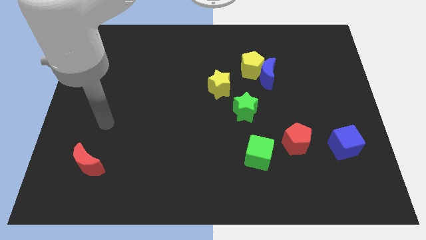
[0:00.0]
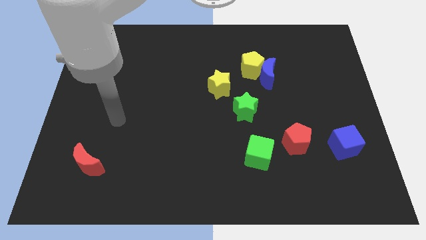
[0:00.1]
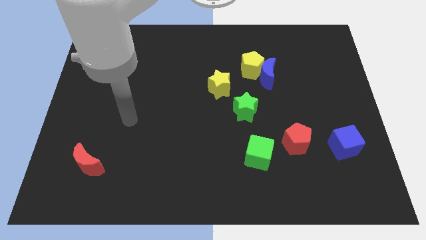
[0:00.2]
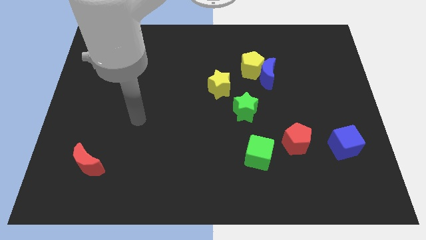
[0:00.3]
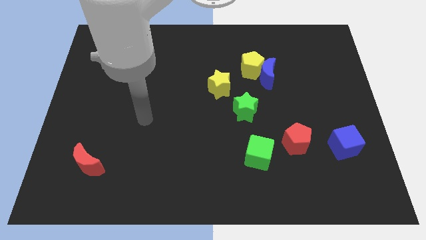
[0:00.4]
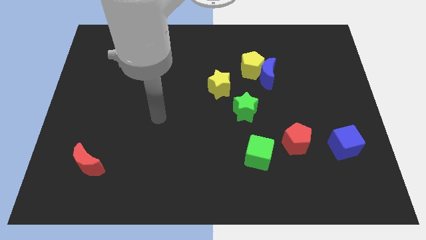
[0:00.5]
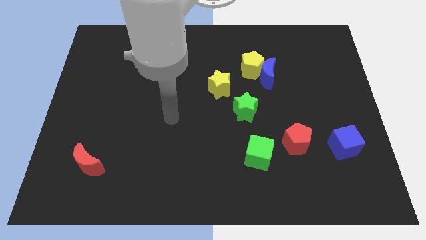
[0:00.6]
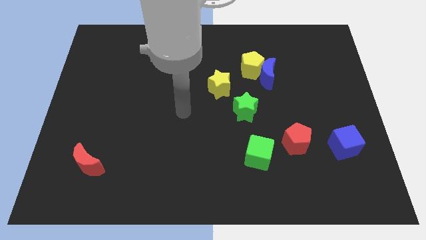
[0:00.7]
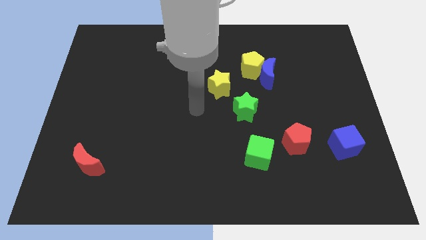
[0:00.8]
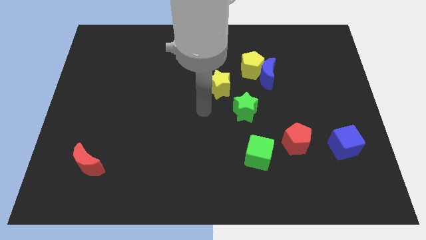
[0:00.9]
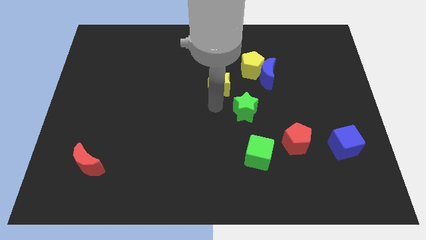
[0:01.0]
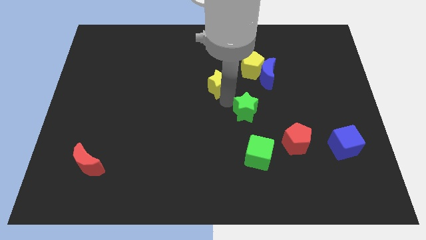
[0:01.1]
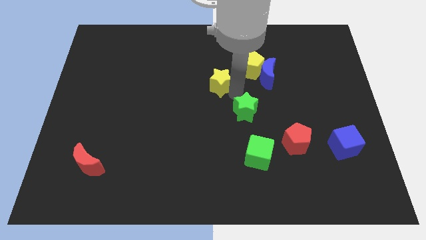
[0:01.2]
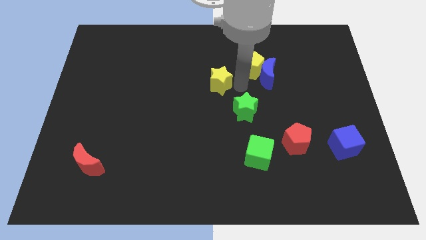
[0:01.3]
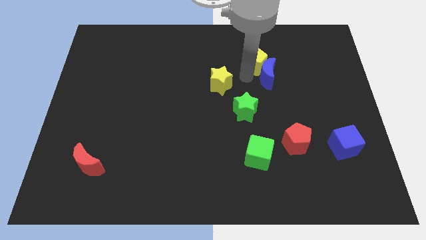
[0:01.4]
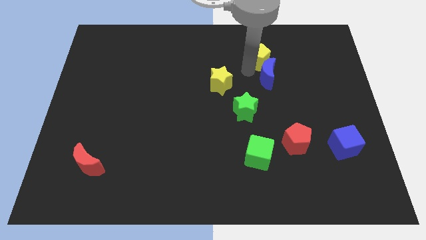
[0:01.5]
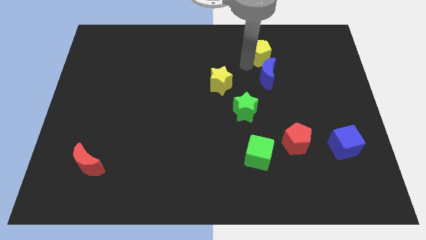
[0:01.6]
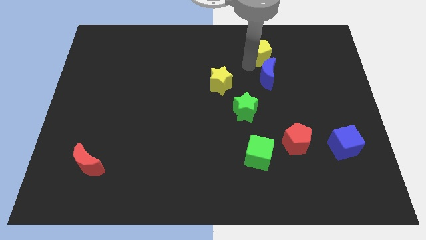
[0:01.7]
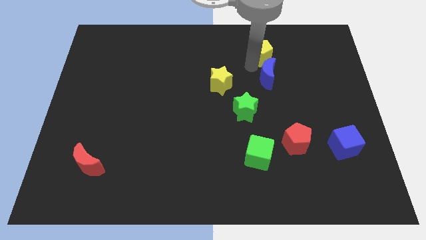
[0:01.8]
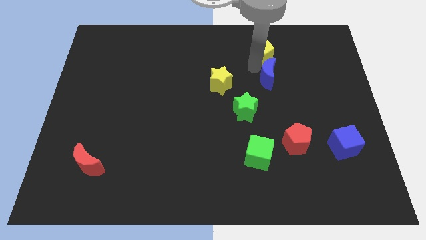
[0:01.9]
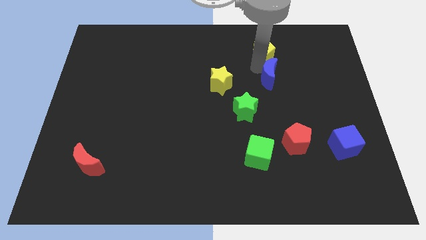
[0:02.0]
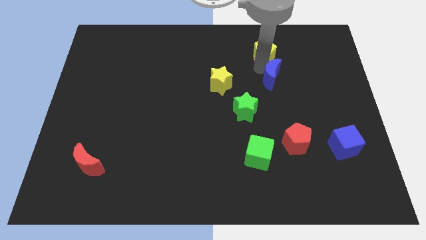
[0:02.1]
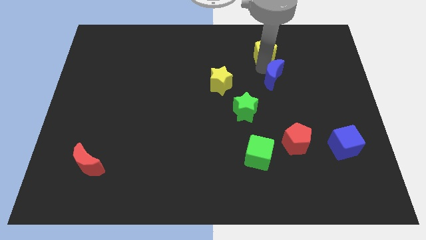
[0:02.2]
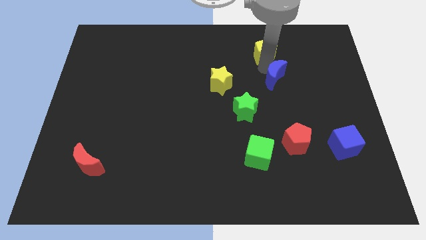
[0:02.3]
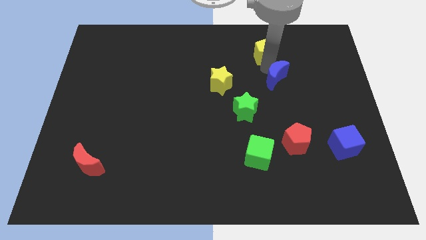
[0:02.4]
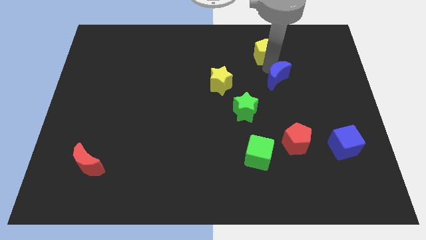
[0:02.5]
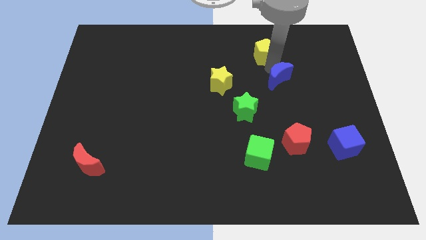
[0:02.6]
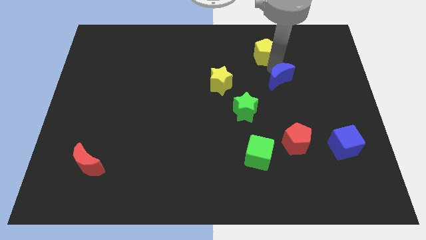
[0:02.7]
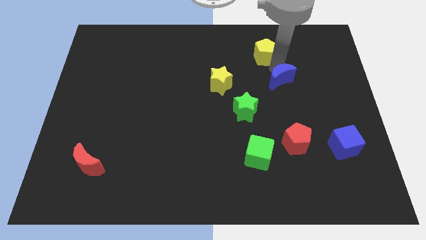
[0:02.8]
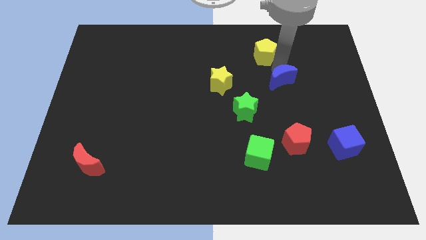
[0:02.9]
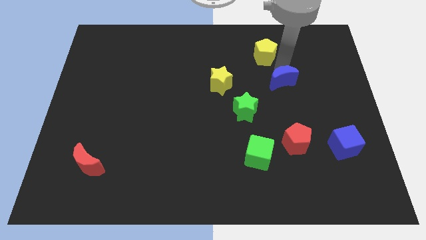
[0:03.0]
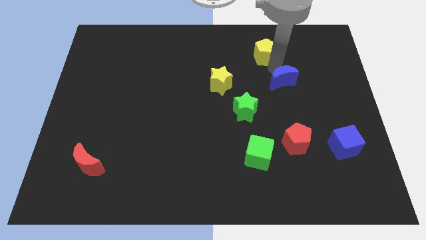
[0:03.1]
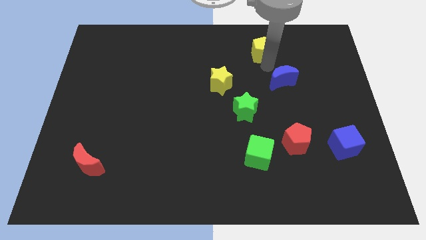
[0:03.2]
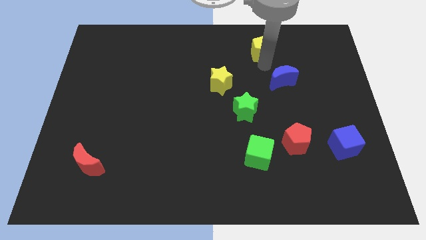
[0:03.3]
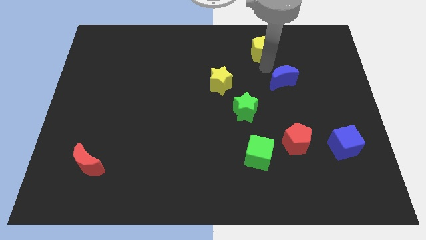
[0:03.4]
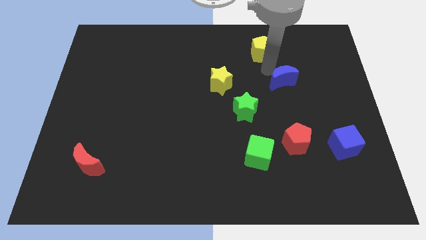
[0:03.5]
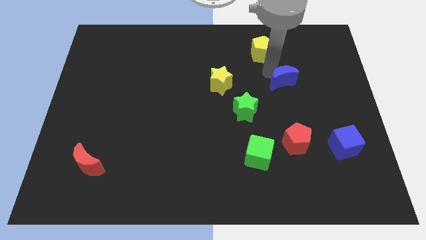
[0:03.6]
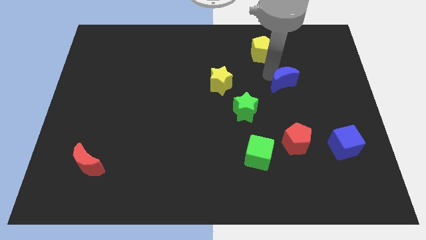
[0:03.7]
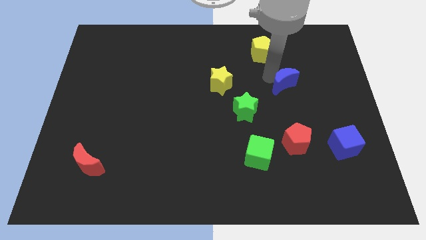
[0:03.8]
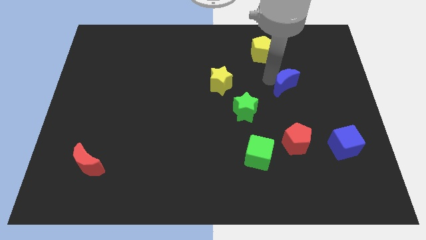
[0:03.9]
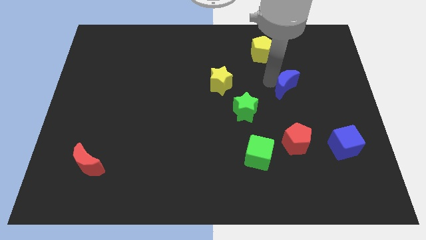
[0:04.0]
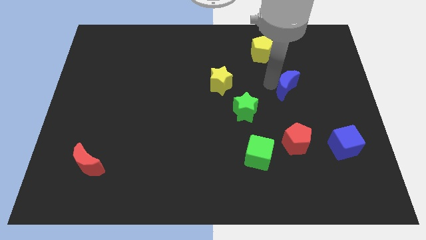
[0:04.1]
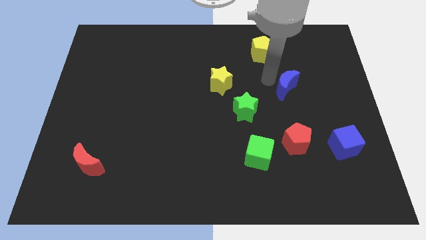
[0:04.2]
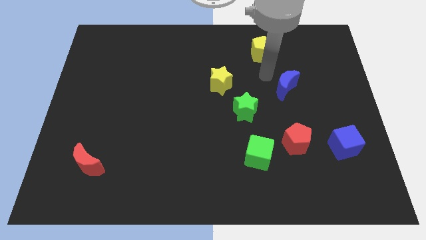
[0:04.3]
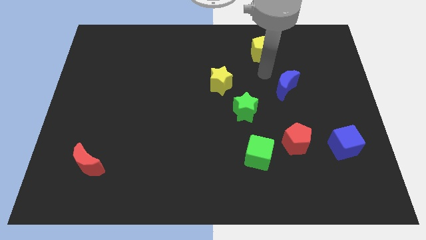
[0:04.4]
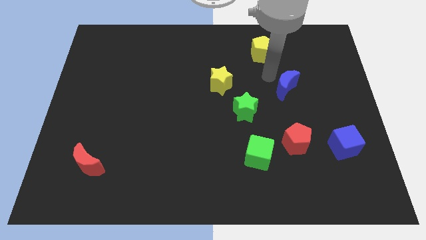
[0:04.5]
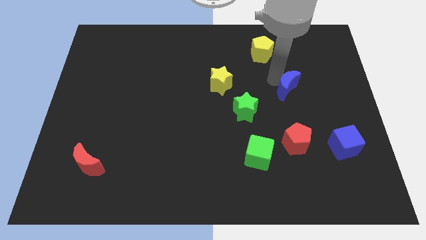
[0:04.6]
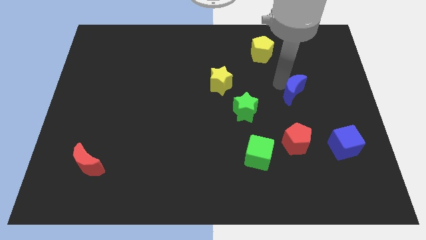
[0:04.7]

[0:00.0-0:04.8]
push the blue moon slightly downwards and right

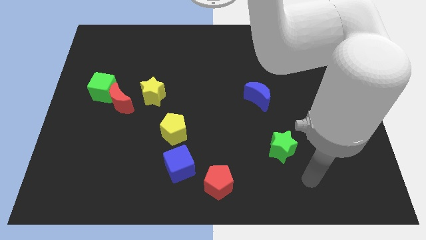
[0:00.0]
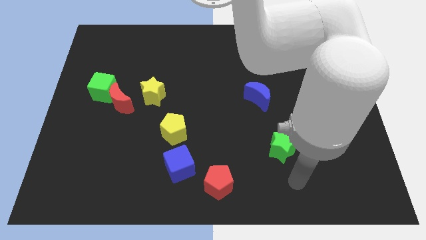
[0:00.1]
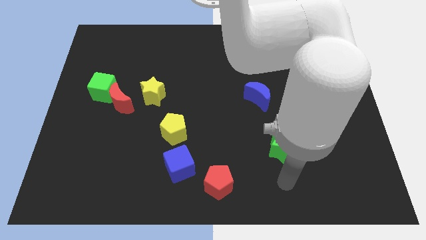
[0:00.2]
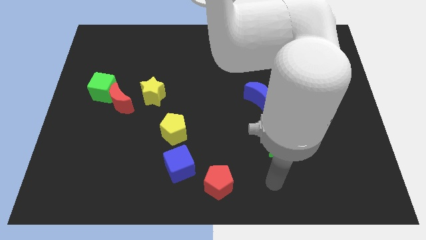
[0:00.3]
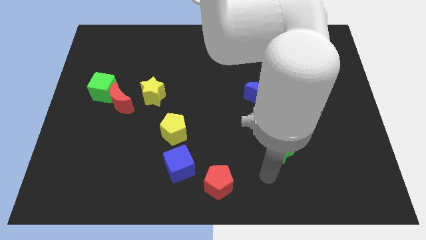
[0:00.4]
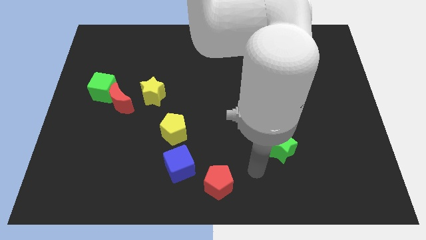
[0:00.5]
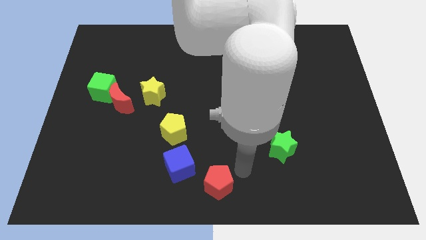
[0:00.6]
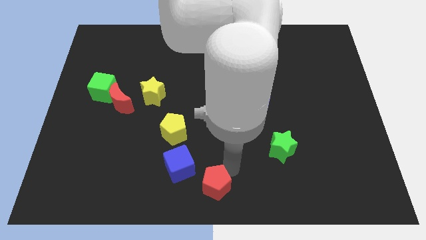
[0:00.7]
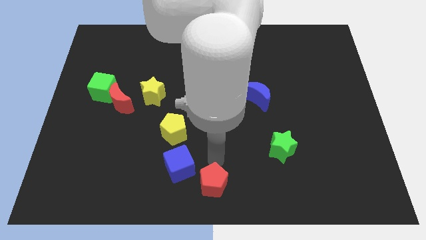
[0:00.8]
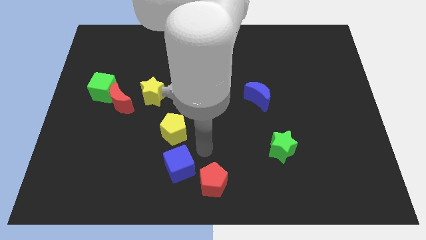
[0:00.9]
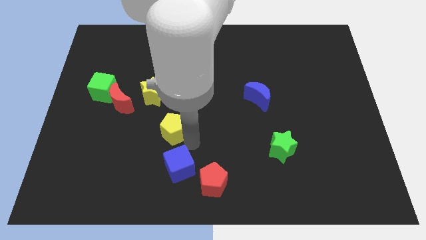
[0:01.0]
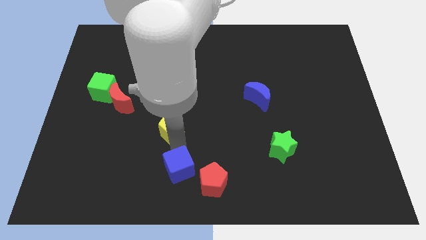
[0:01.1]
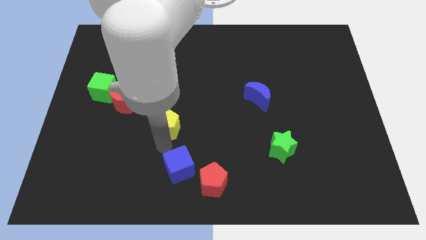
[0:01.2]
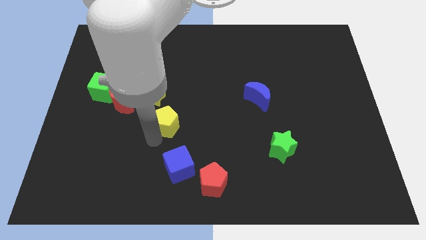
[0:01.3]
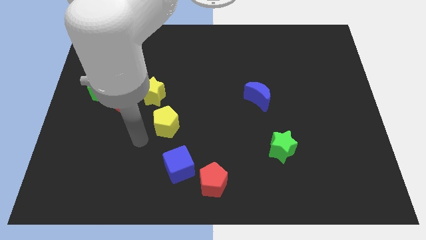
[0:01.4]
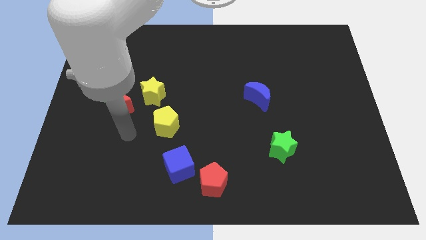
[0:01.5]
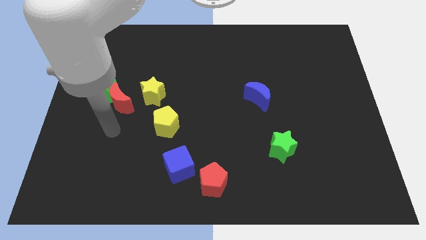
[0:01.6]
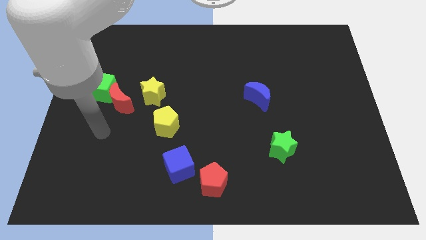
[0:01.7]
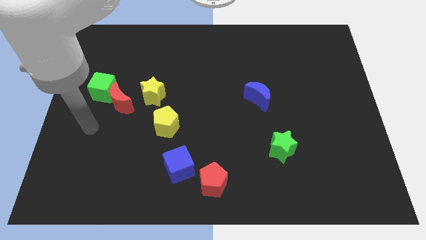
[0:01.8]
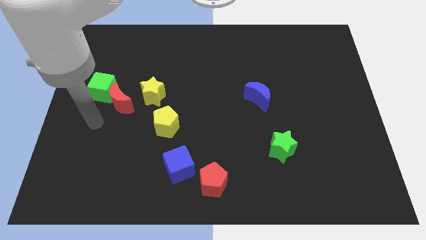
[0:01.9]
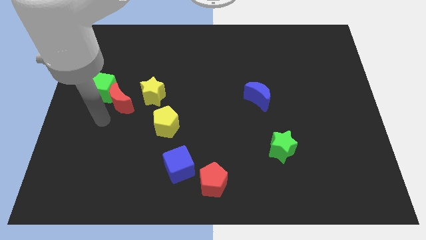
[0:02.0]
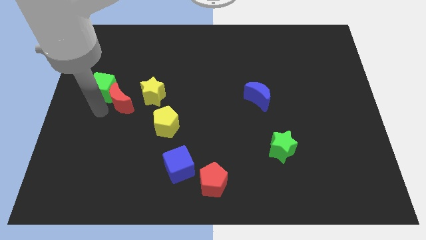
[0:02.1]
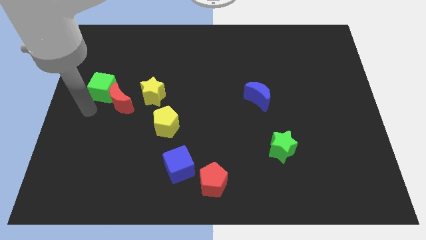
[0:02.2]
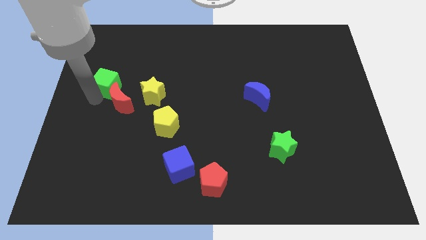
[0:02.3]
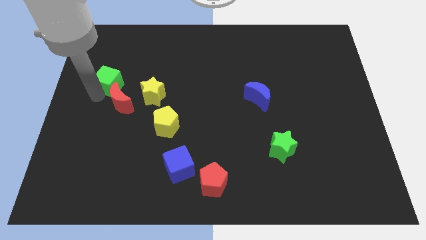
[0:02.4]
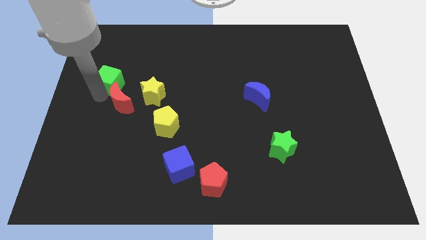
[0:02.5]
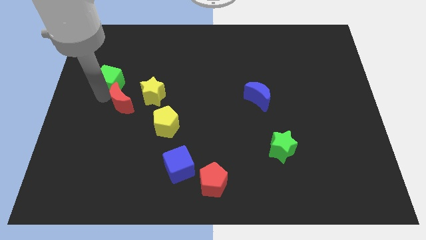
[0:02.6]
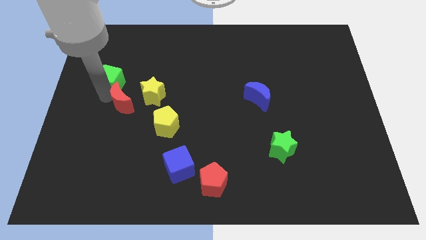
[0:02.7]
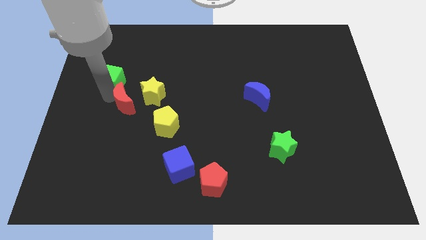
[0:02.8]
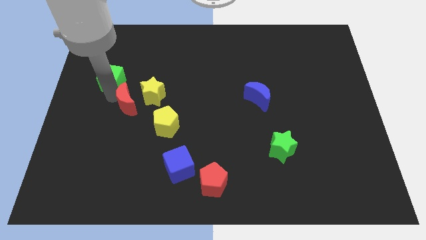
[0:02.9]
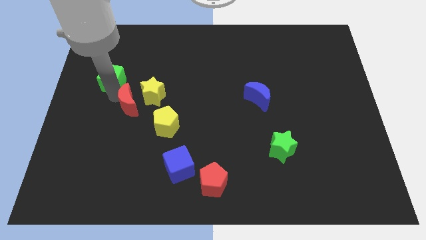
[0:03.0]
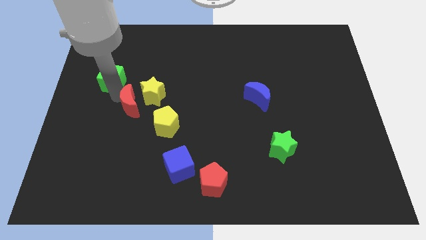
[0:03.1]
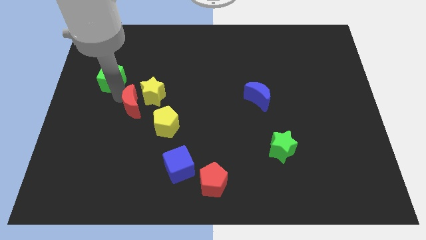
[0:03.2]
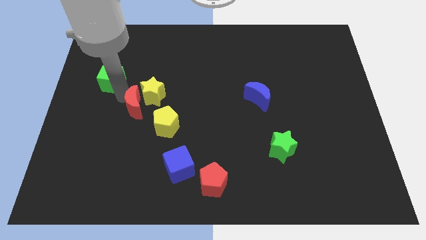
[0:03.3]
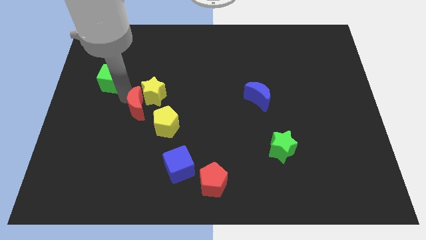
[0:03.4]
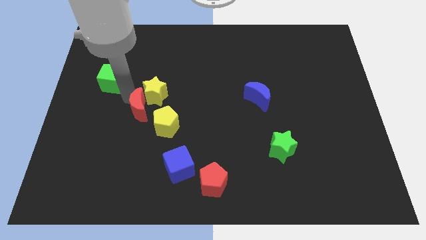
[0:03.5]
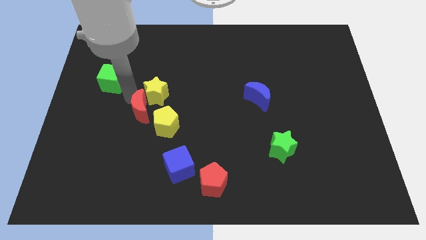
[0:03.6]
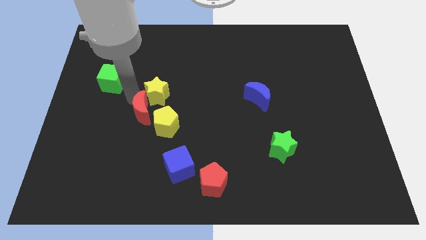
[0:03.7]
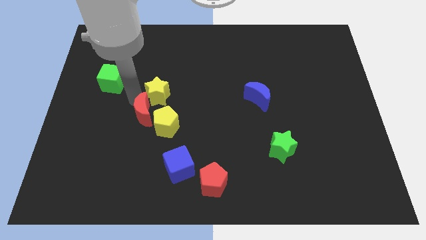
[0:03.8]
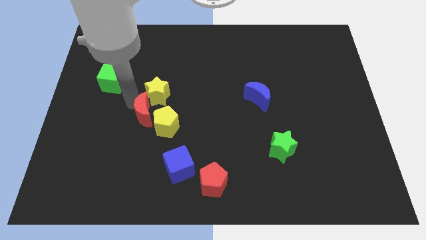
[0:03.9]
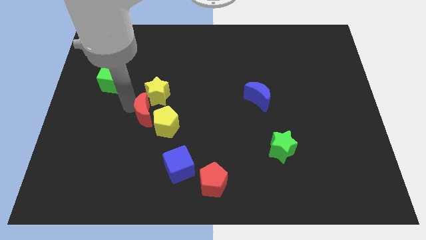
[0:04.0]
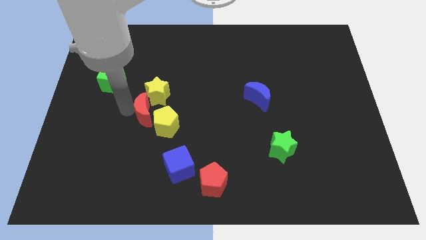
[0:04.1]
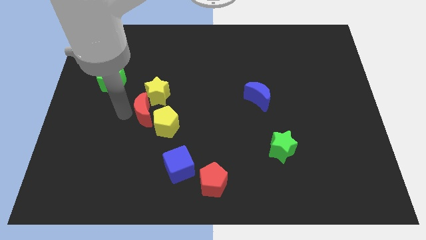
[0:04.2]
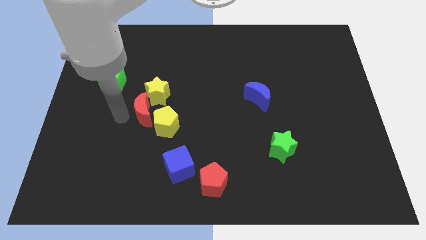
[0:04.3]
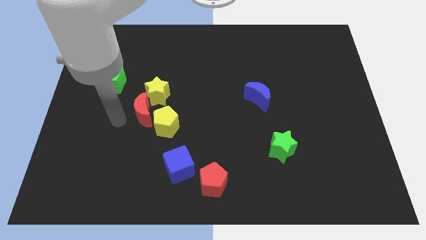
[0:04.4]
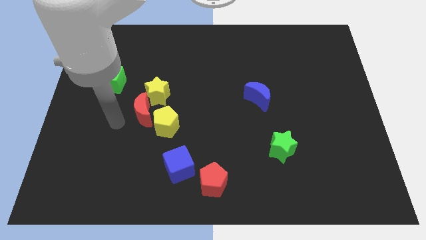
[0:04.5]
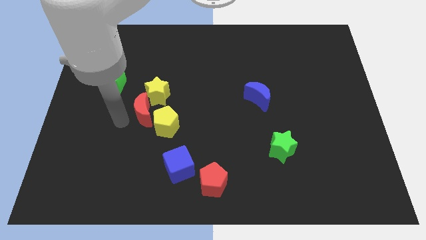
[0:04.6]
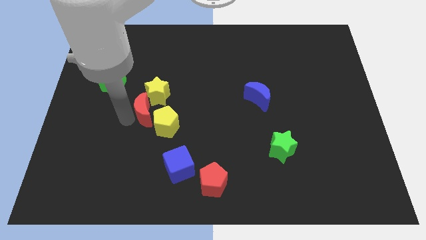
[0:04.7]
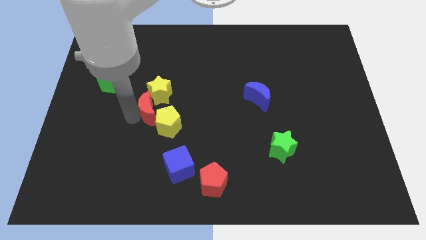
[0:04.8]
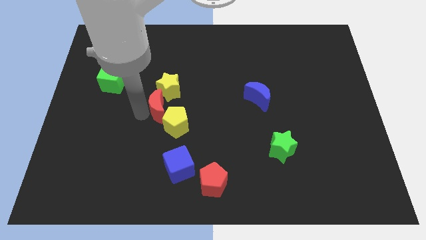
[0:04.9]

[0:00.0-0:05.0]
push the red moon a bit to the right
